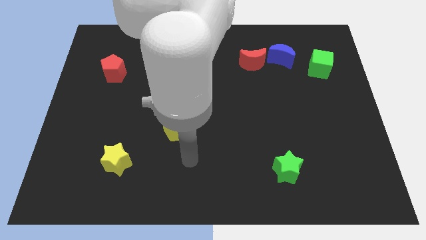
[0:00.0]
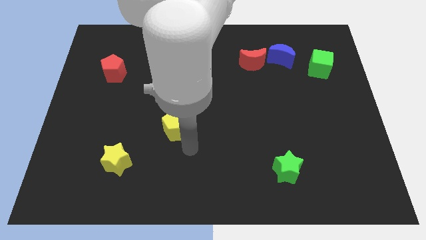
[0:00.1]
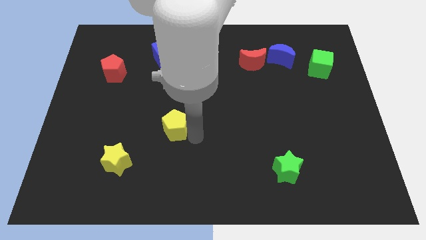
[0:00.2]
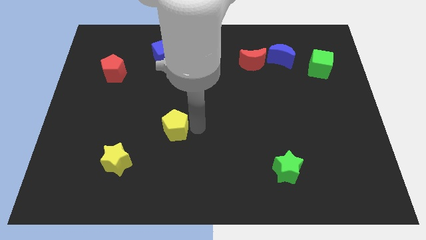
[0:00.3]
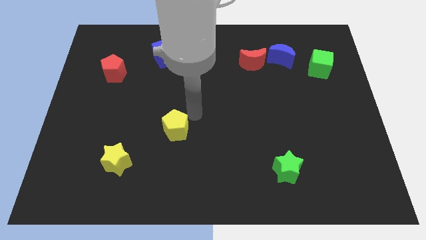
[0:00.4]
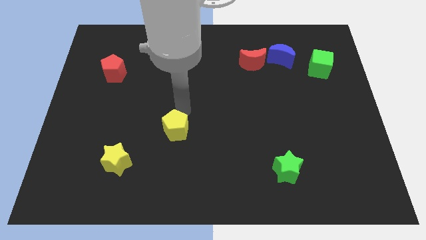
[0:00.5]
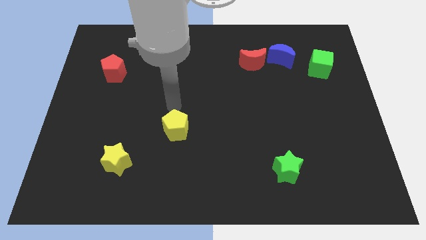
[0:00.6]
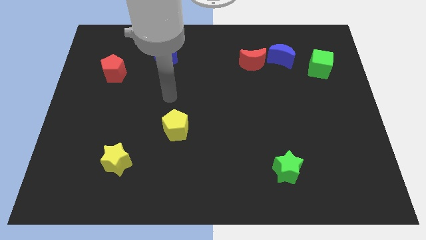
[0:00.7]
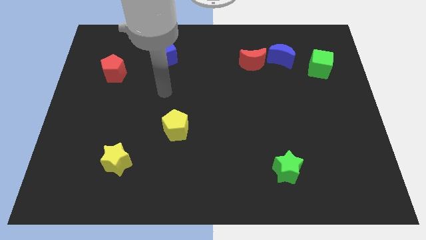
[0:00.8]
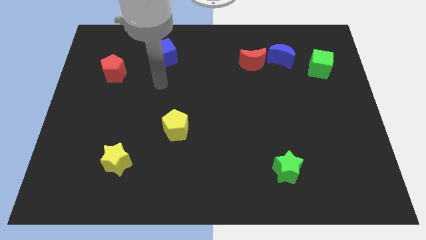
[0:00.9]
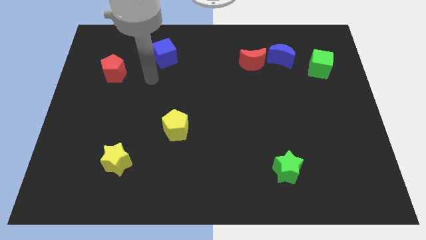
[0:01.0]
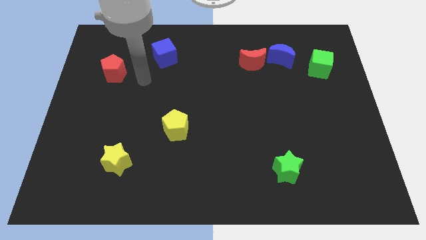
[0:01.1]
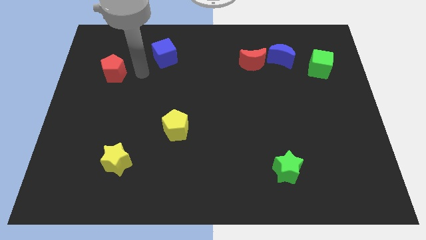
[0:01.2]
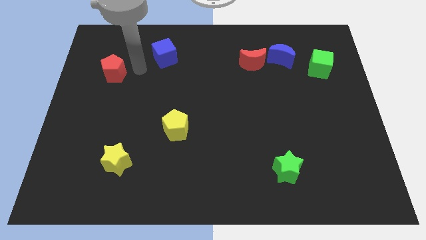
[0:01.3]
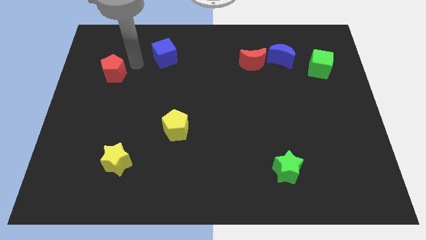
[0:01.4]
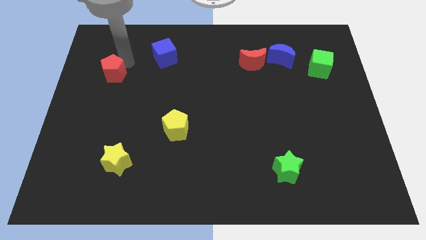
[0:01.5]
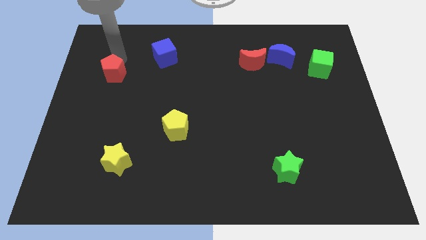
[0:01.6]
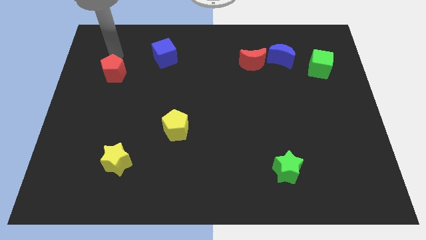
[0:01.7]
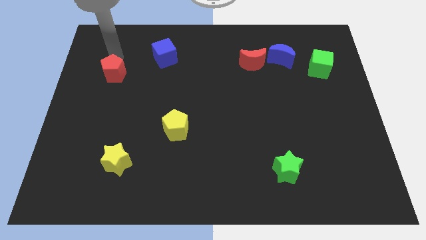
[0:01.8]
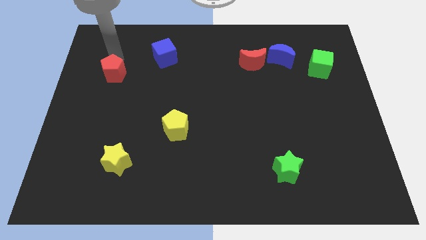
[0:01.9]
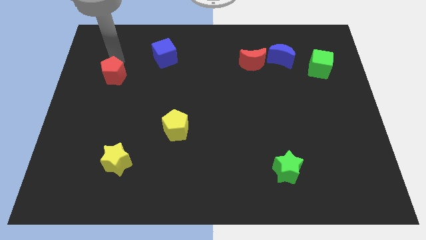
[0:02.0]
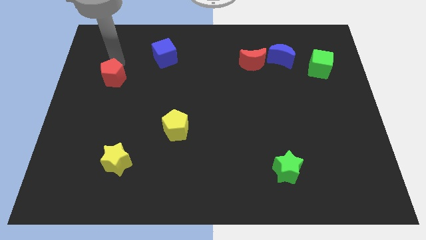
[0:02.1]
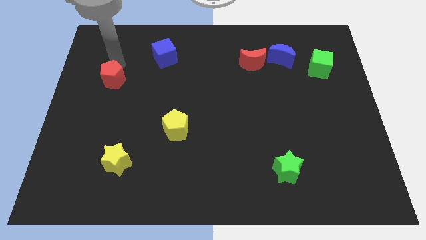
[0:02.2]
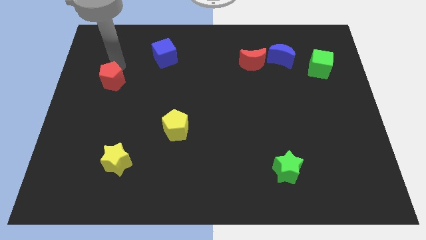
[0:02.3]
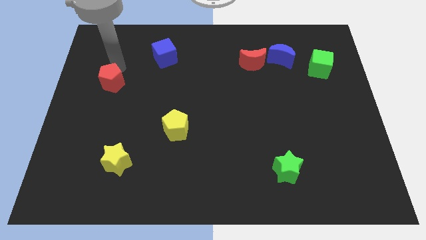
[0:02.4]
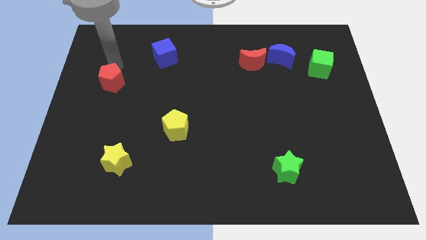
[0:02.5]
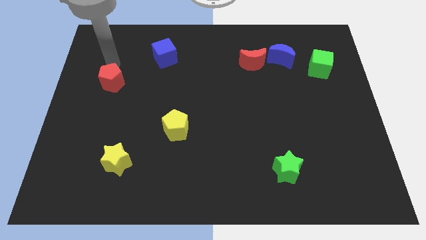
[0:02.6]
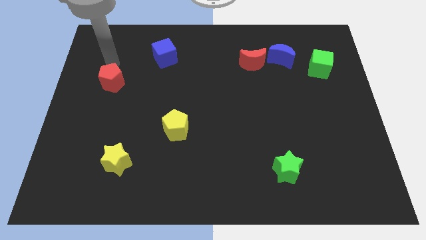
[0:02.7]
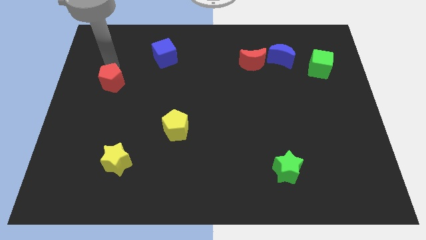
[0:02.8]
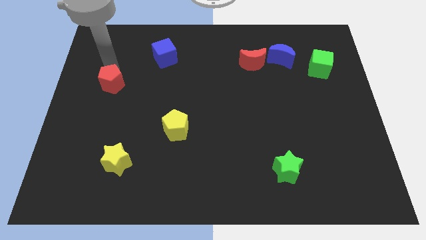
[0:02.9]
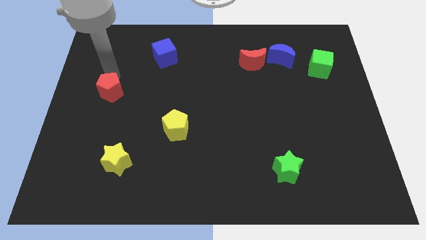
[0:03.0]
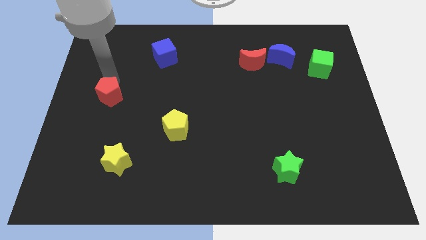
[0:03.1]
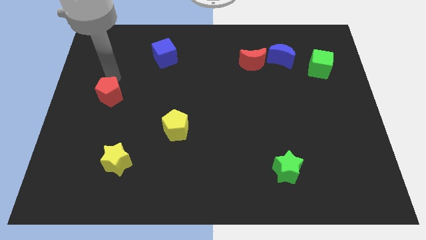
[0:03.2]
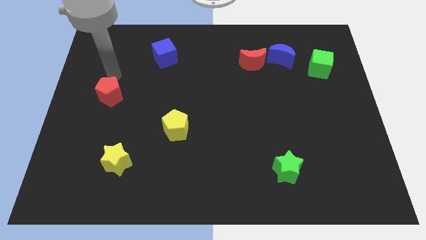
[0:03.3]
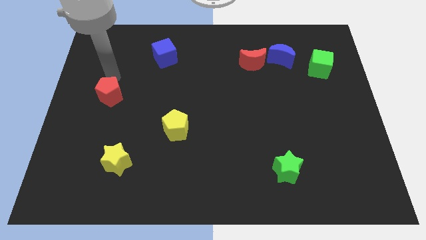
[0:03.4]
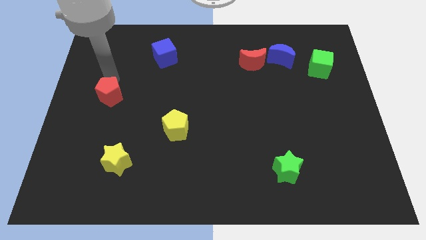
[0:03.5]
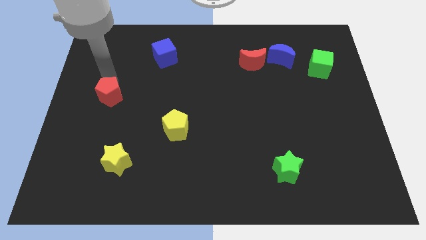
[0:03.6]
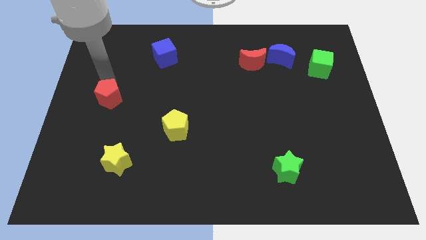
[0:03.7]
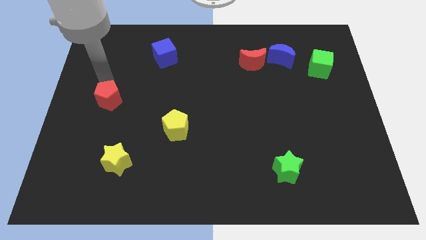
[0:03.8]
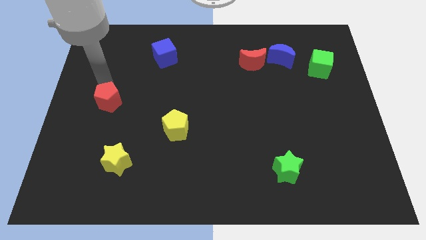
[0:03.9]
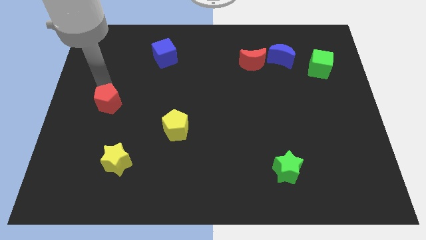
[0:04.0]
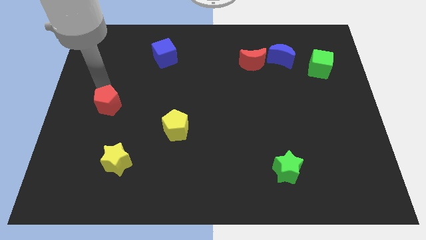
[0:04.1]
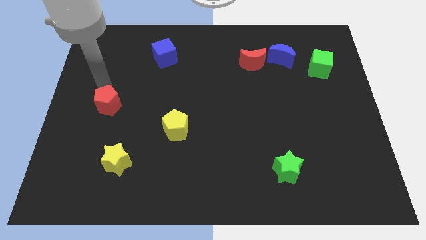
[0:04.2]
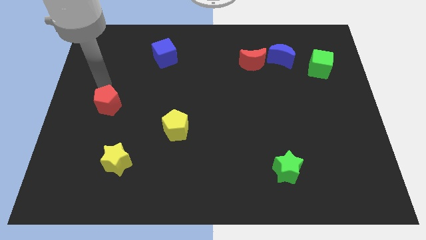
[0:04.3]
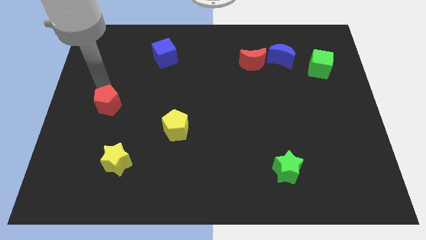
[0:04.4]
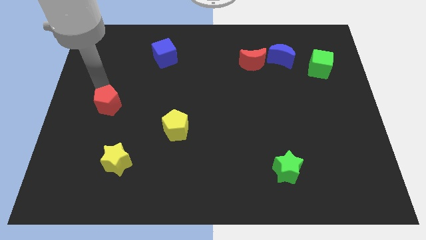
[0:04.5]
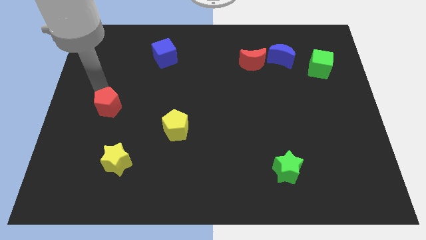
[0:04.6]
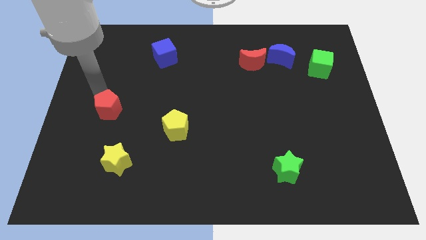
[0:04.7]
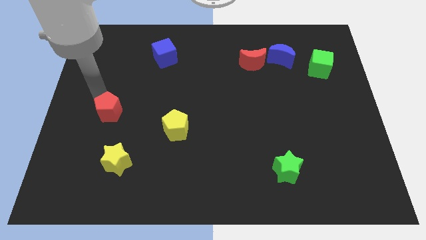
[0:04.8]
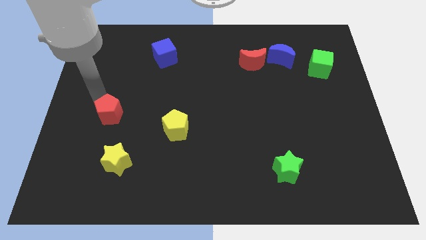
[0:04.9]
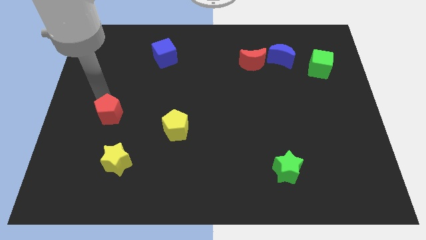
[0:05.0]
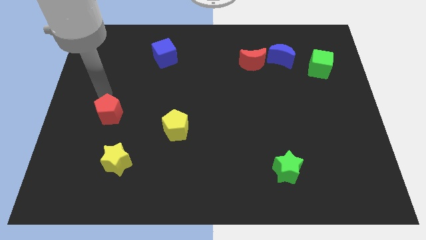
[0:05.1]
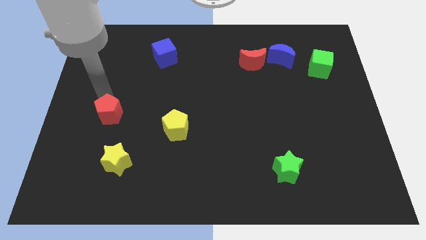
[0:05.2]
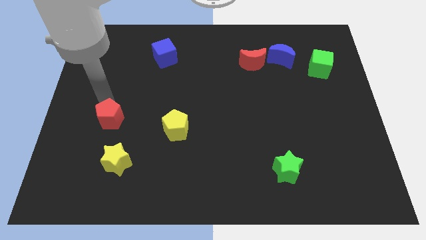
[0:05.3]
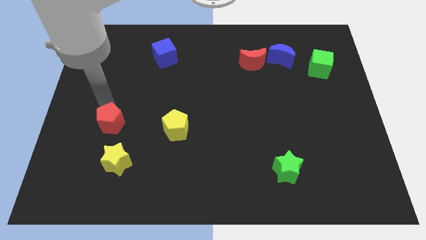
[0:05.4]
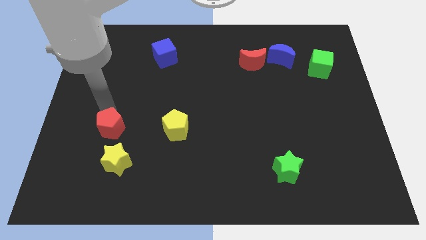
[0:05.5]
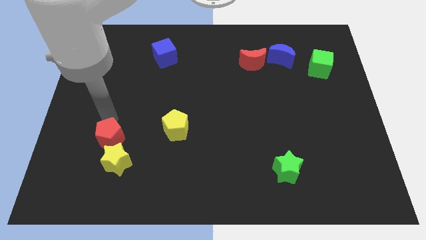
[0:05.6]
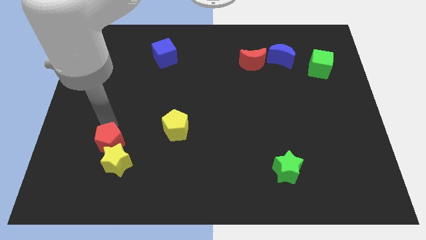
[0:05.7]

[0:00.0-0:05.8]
slide the red pentagon next to the yellow star

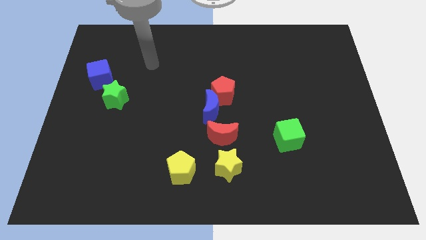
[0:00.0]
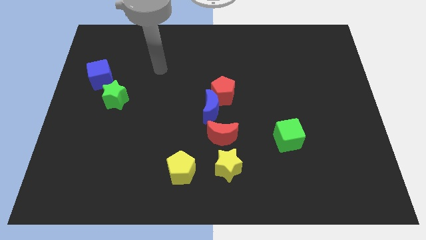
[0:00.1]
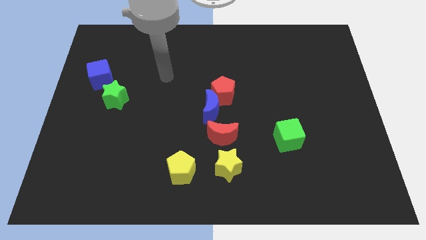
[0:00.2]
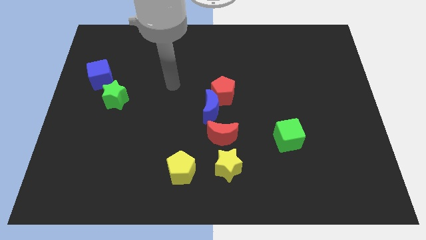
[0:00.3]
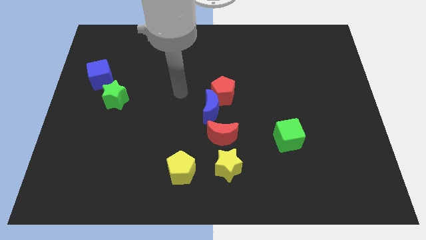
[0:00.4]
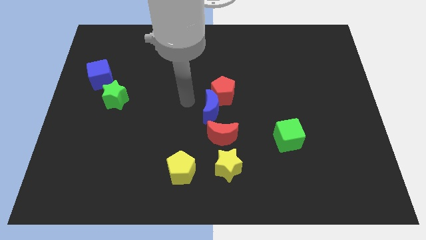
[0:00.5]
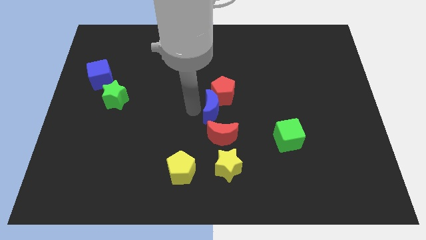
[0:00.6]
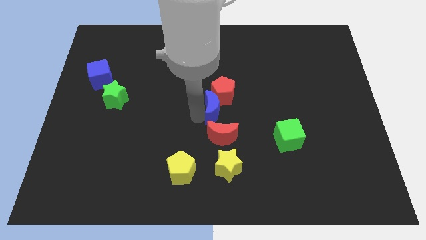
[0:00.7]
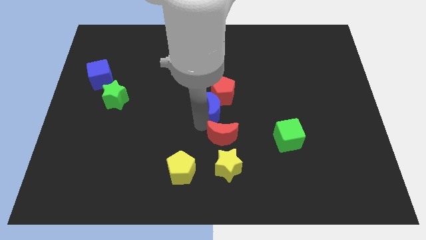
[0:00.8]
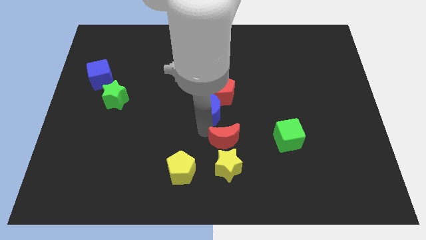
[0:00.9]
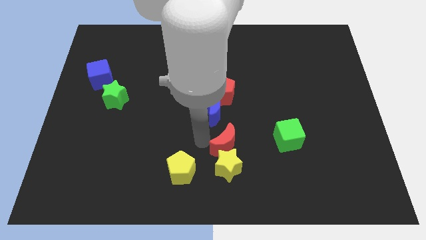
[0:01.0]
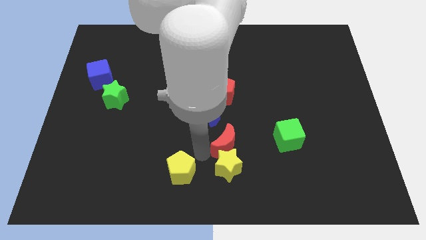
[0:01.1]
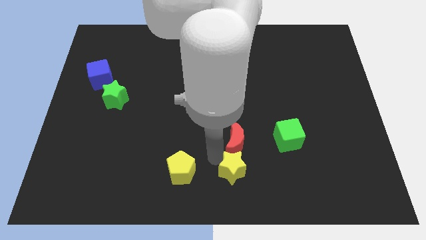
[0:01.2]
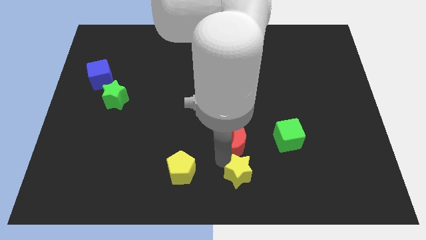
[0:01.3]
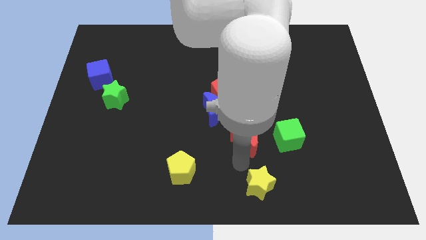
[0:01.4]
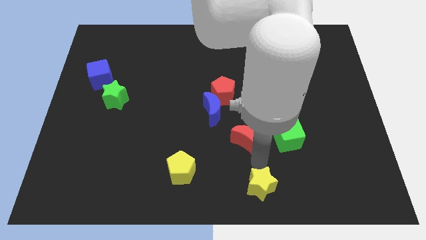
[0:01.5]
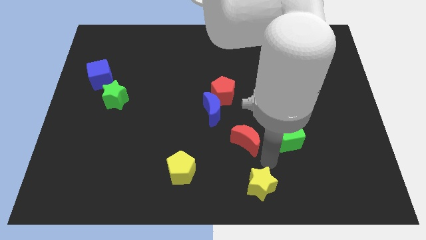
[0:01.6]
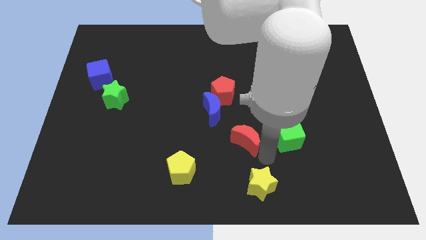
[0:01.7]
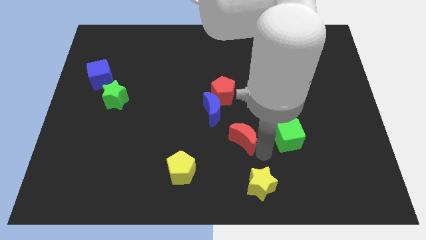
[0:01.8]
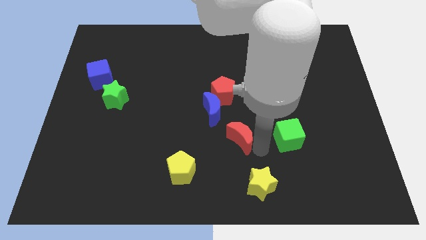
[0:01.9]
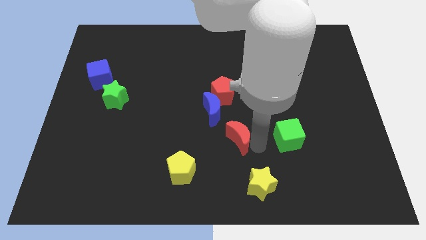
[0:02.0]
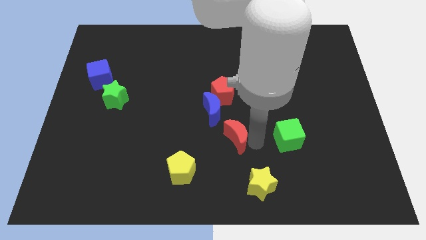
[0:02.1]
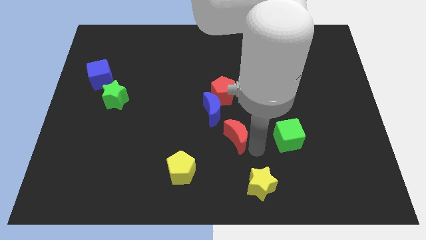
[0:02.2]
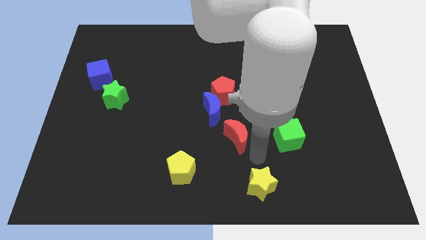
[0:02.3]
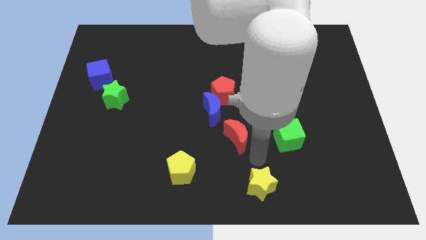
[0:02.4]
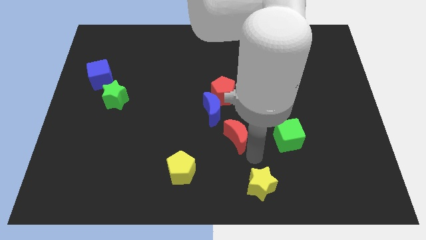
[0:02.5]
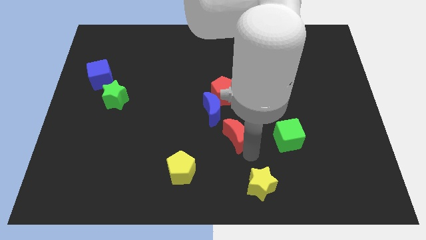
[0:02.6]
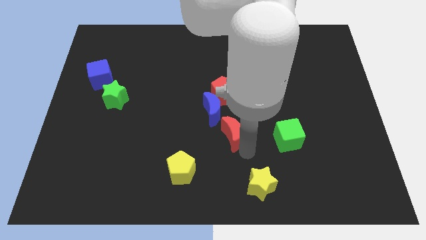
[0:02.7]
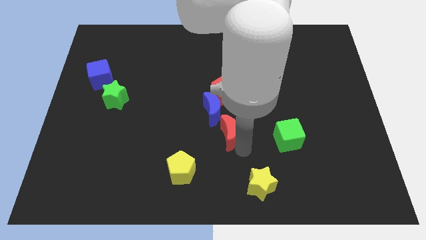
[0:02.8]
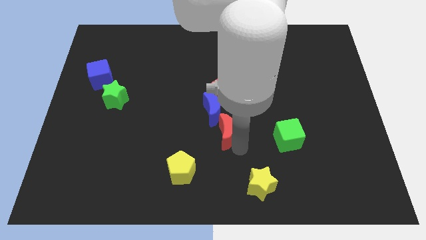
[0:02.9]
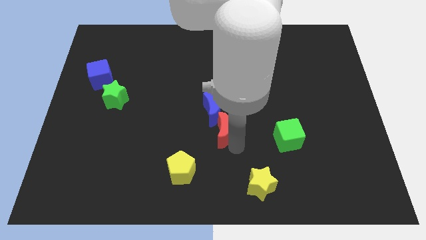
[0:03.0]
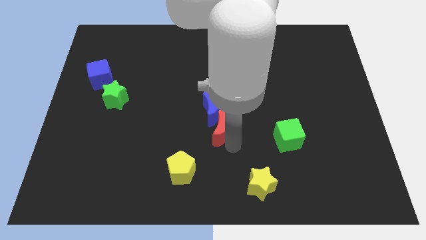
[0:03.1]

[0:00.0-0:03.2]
slide the red moon next to the blue moon
